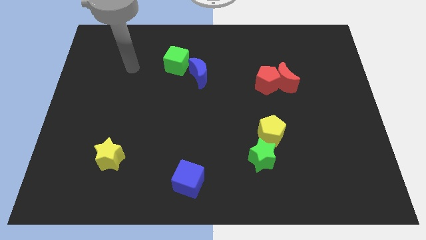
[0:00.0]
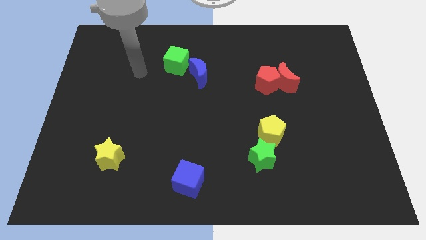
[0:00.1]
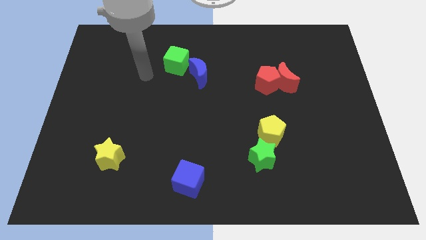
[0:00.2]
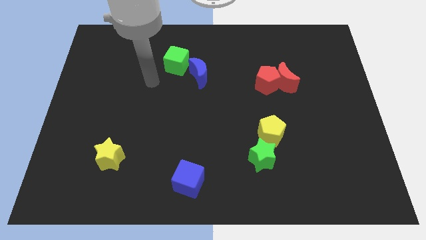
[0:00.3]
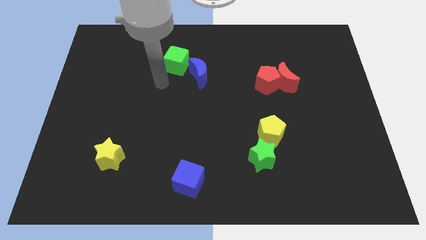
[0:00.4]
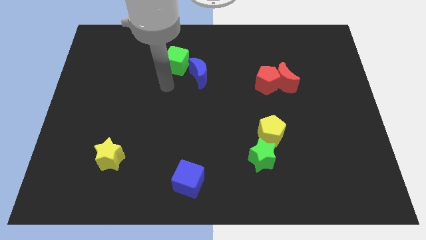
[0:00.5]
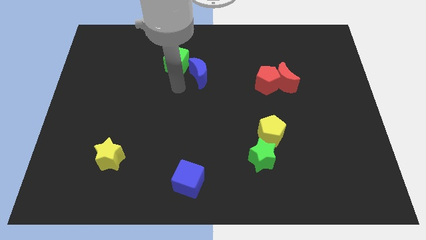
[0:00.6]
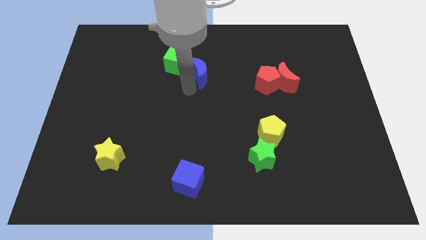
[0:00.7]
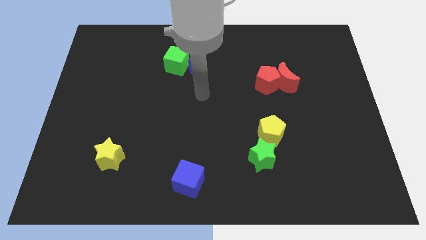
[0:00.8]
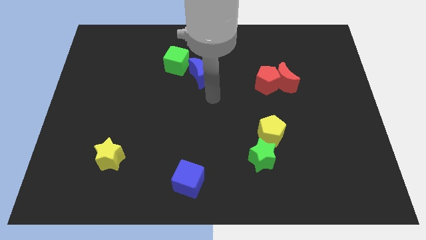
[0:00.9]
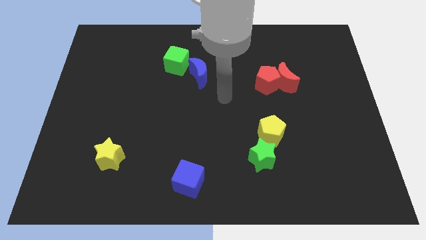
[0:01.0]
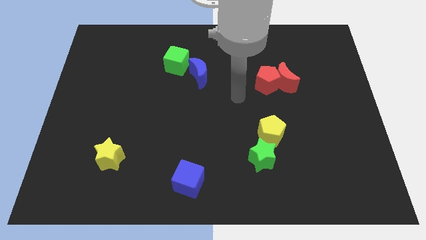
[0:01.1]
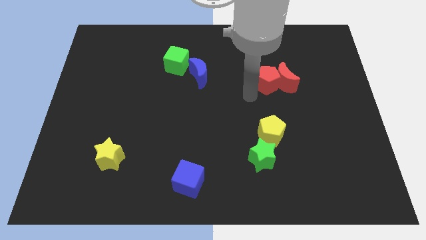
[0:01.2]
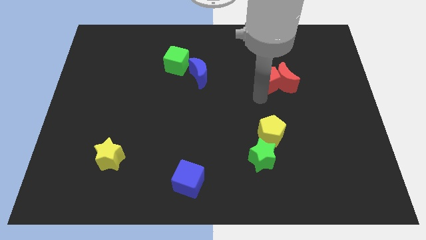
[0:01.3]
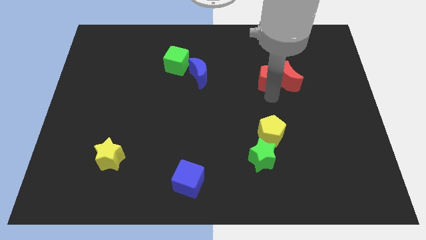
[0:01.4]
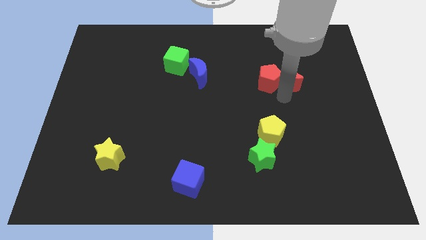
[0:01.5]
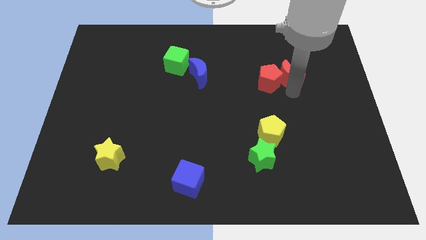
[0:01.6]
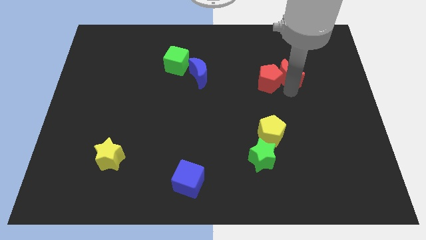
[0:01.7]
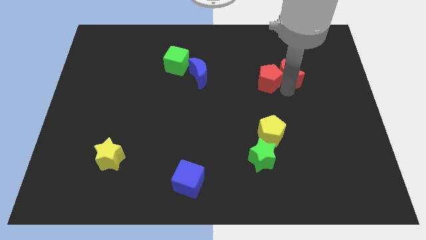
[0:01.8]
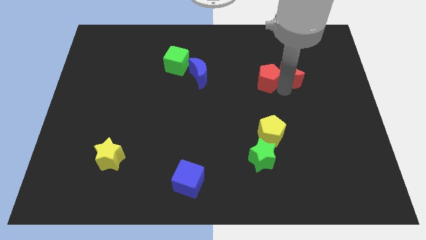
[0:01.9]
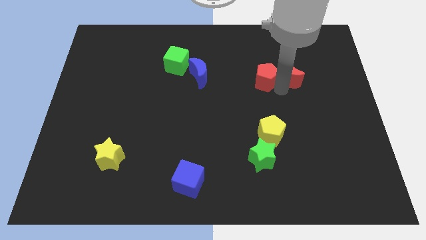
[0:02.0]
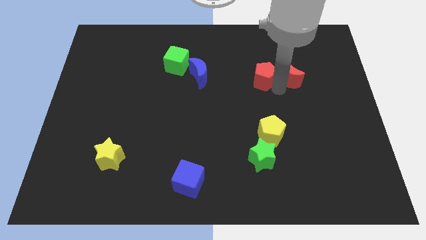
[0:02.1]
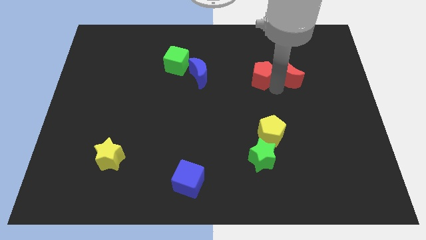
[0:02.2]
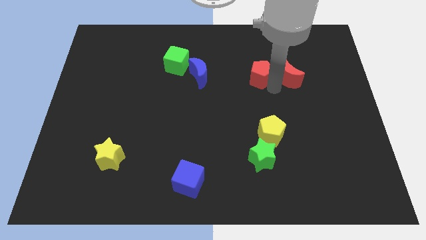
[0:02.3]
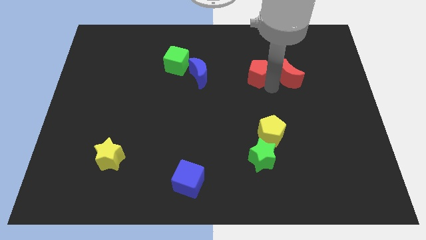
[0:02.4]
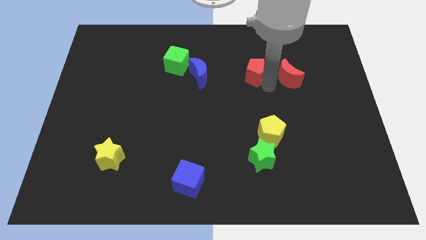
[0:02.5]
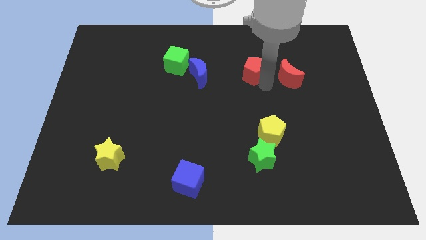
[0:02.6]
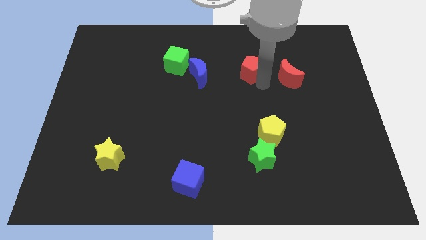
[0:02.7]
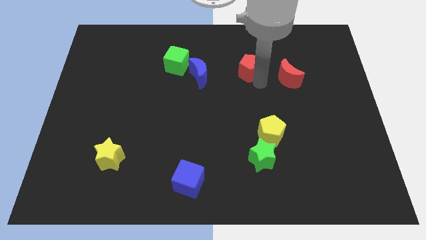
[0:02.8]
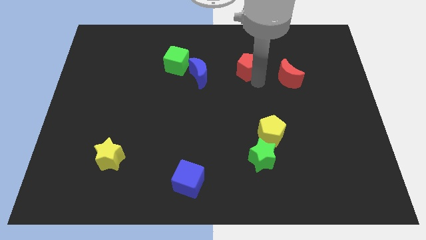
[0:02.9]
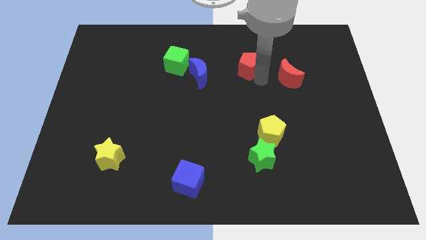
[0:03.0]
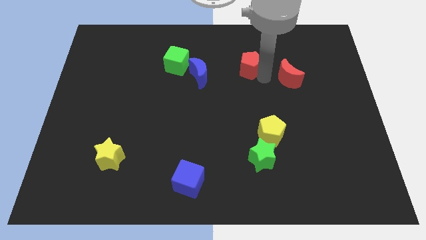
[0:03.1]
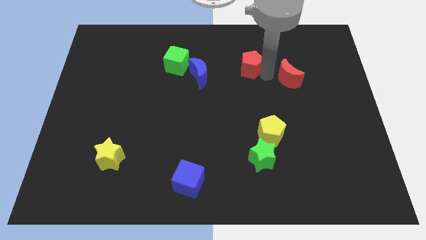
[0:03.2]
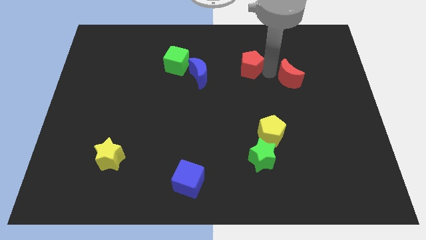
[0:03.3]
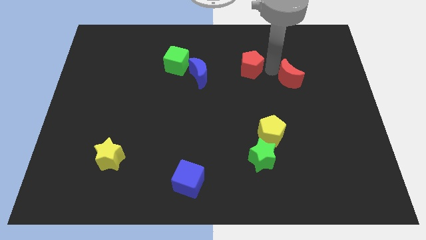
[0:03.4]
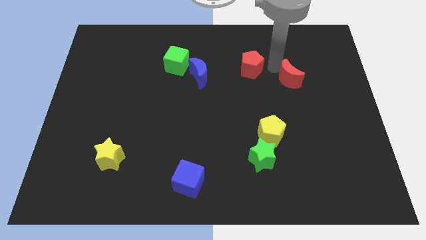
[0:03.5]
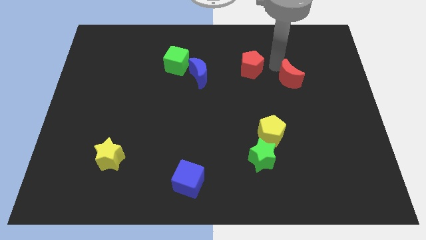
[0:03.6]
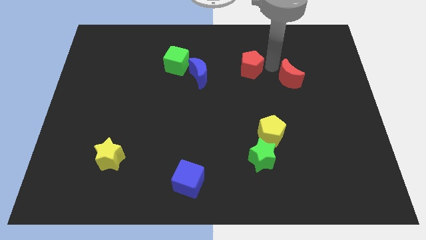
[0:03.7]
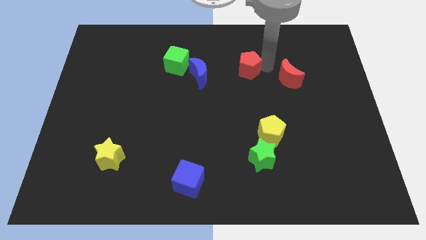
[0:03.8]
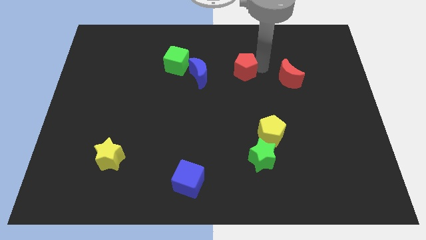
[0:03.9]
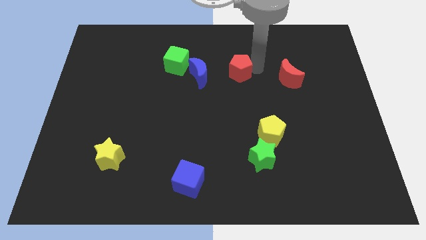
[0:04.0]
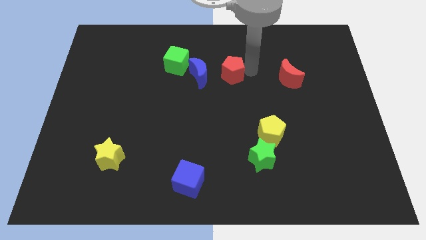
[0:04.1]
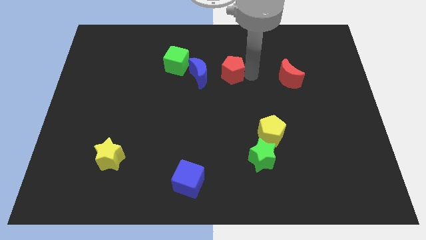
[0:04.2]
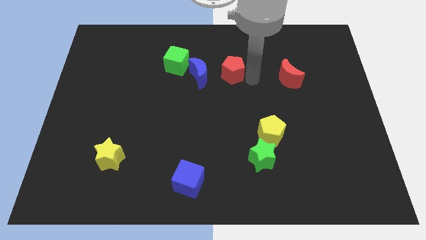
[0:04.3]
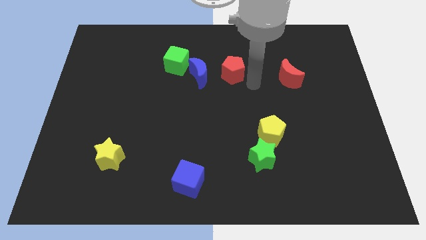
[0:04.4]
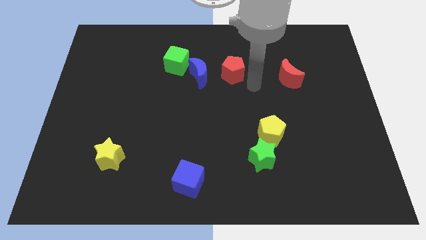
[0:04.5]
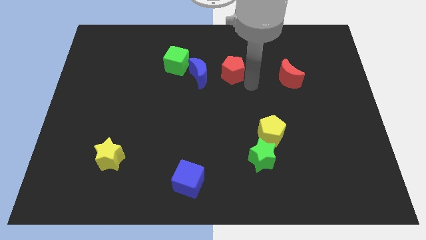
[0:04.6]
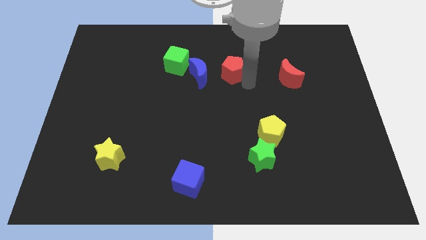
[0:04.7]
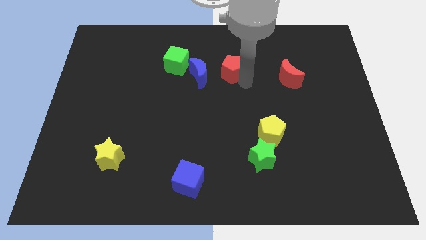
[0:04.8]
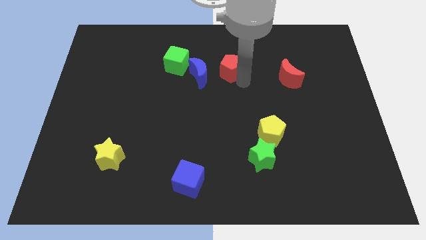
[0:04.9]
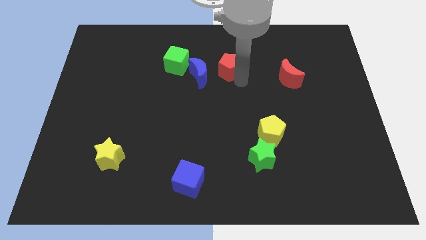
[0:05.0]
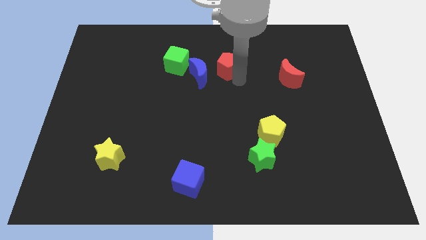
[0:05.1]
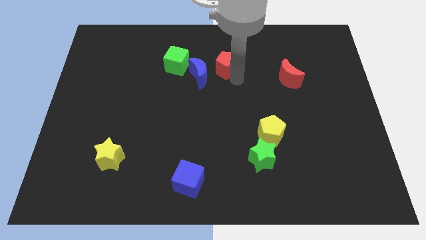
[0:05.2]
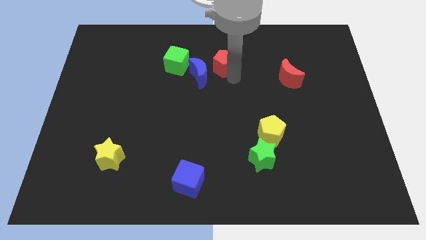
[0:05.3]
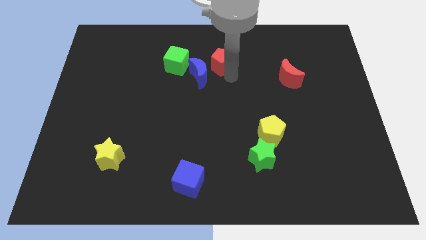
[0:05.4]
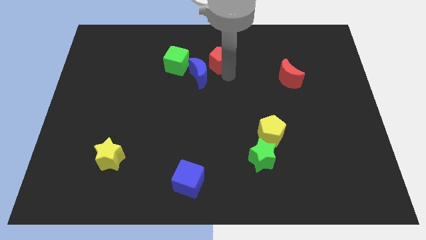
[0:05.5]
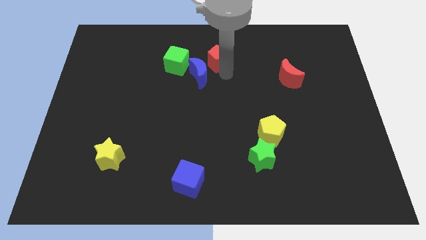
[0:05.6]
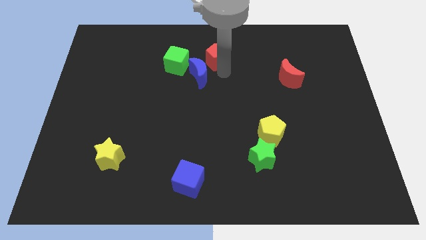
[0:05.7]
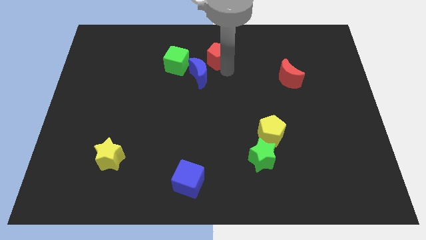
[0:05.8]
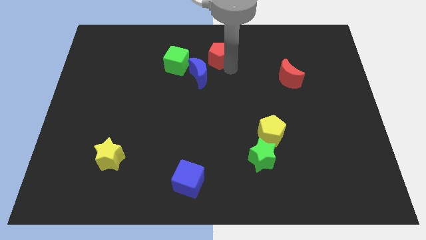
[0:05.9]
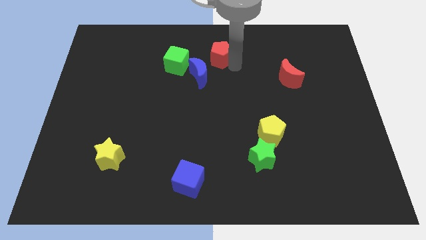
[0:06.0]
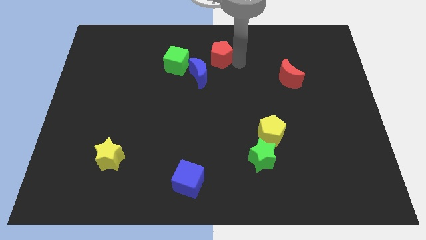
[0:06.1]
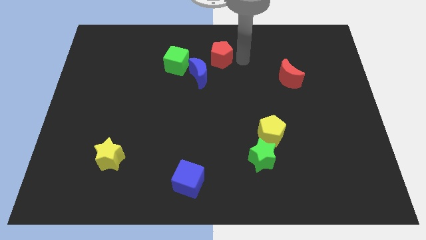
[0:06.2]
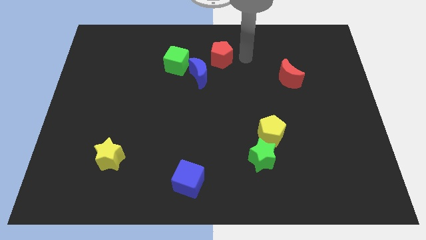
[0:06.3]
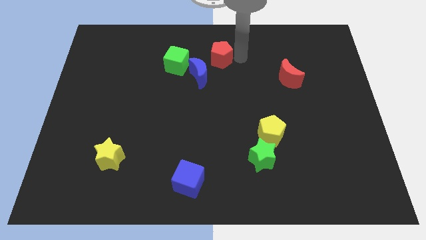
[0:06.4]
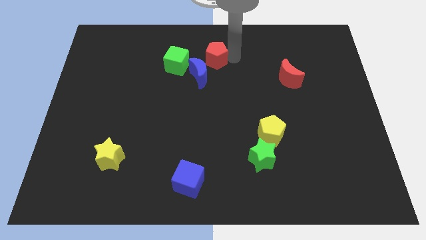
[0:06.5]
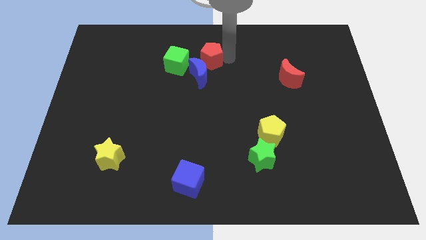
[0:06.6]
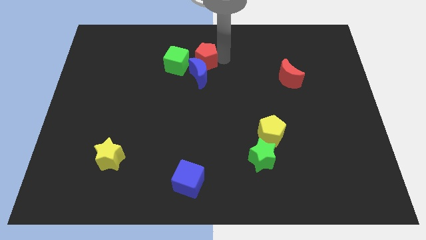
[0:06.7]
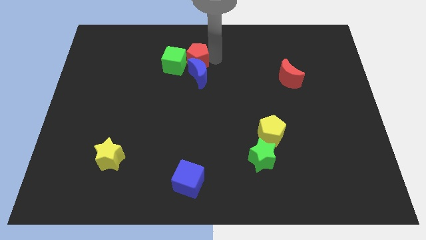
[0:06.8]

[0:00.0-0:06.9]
put the red pentagon to the green cube

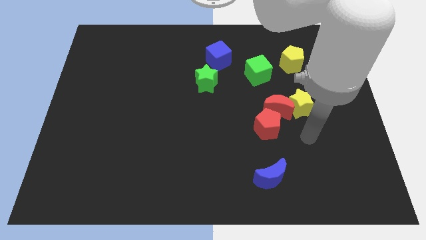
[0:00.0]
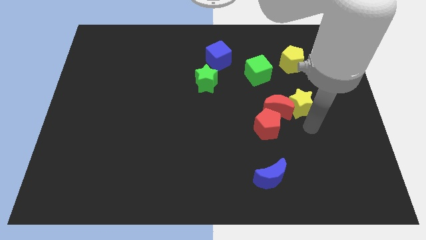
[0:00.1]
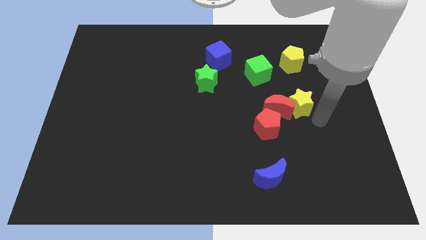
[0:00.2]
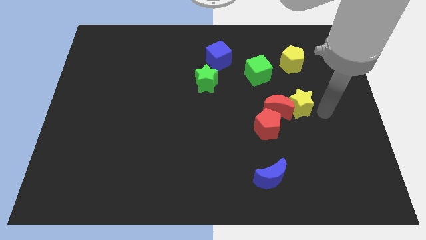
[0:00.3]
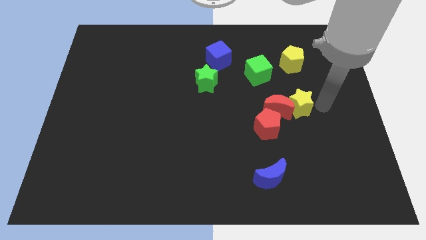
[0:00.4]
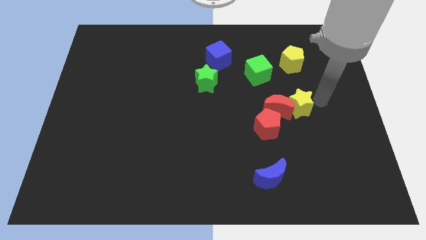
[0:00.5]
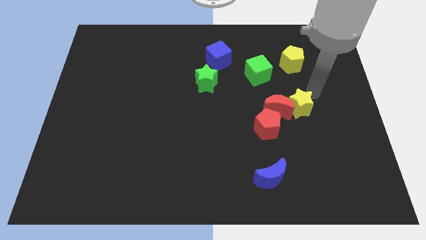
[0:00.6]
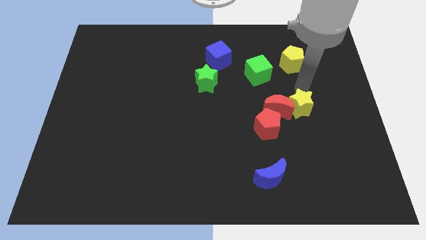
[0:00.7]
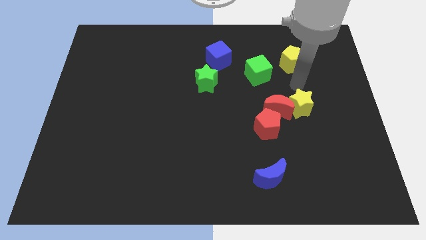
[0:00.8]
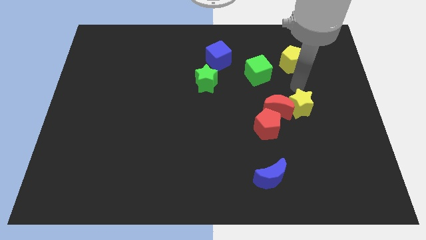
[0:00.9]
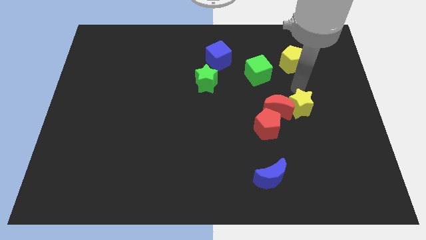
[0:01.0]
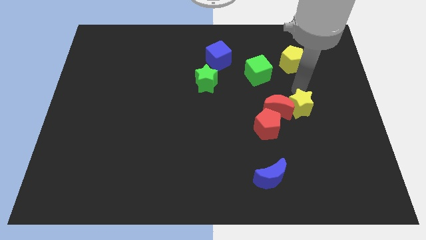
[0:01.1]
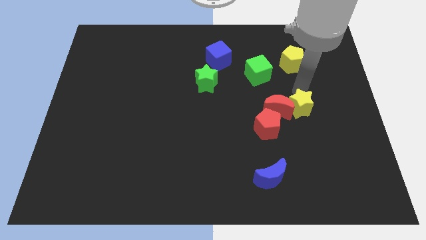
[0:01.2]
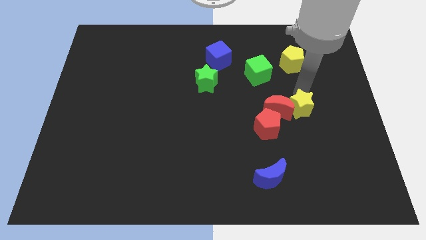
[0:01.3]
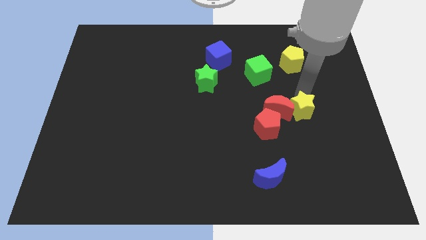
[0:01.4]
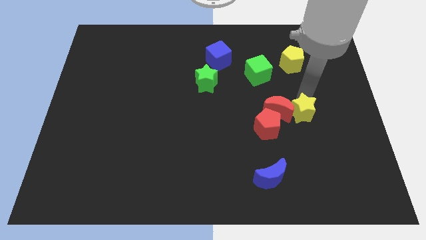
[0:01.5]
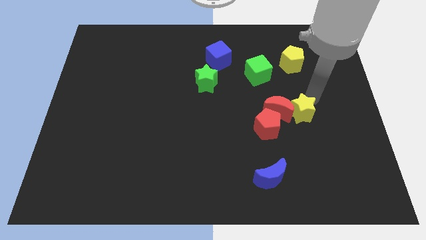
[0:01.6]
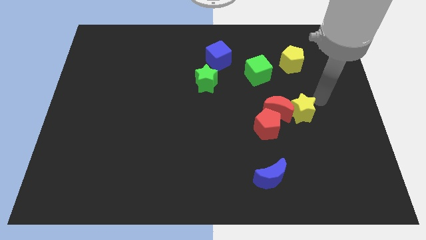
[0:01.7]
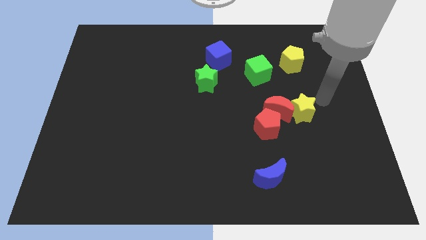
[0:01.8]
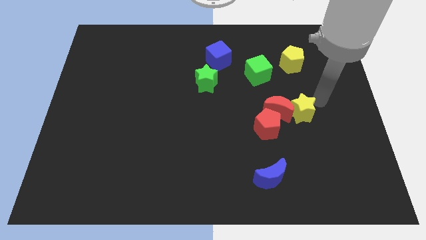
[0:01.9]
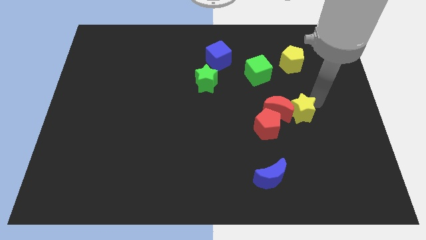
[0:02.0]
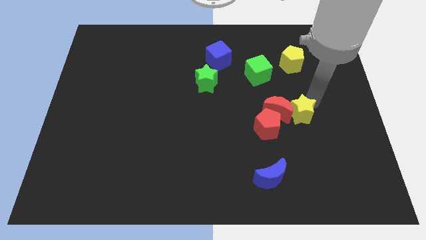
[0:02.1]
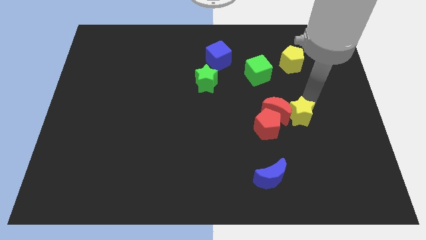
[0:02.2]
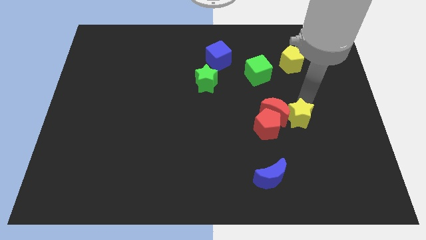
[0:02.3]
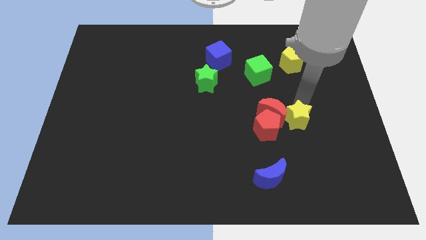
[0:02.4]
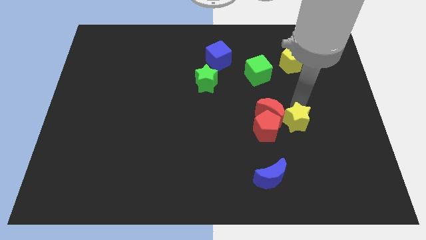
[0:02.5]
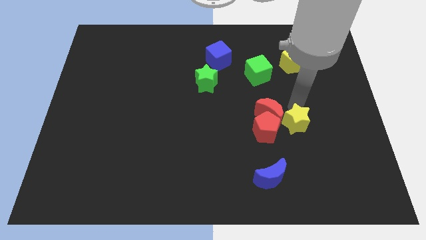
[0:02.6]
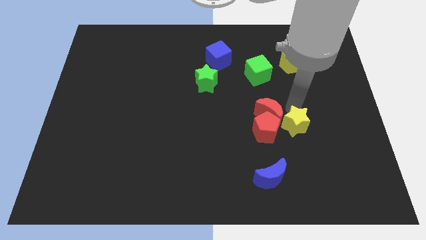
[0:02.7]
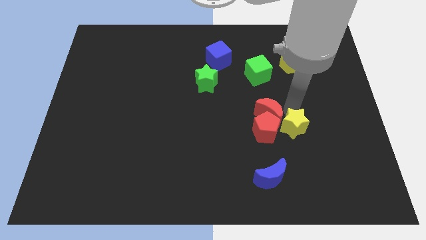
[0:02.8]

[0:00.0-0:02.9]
move the yellow star close to the red pentagon
